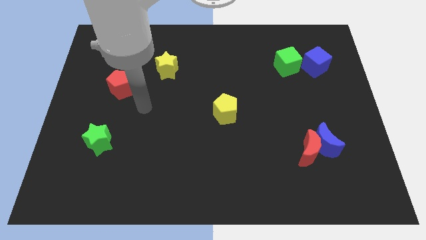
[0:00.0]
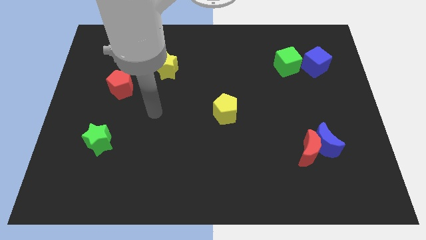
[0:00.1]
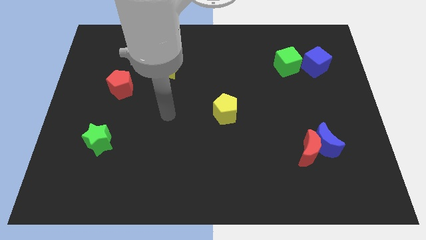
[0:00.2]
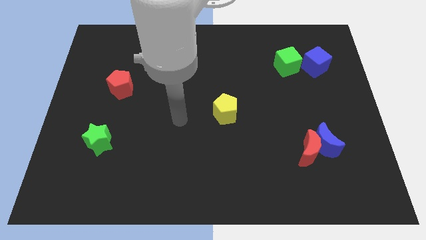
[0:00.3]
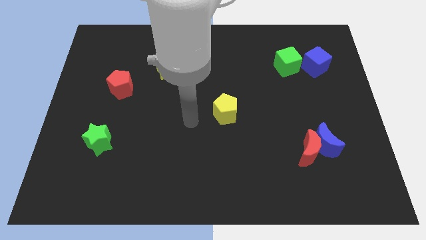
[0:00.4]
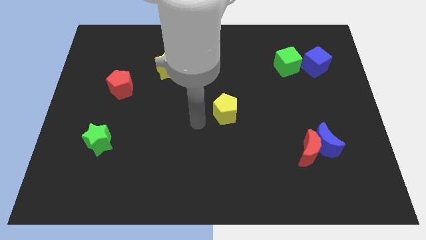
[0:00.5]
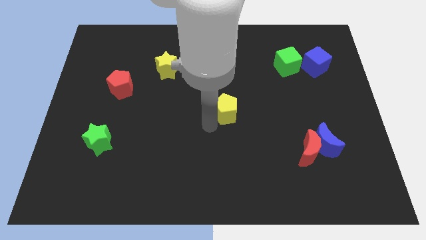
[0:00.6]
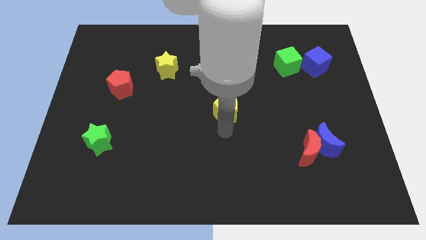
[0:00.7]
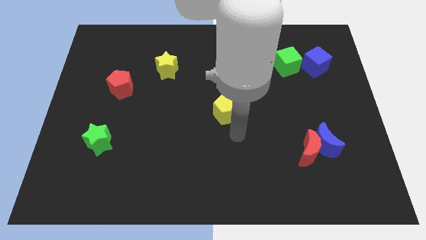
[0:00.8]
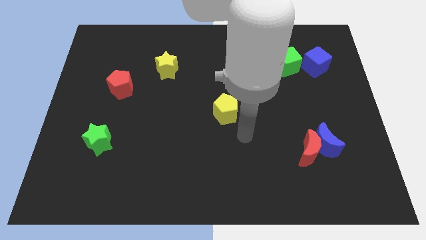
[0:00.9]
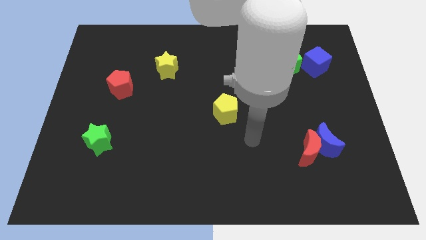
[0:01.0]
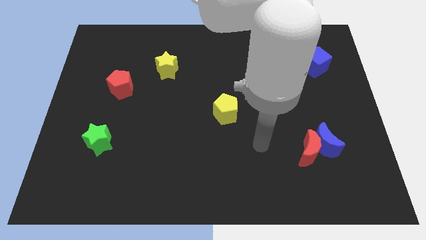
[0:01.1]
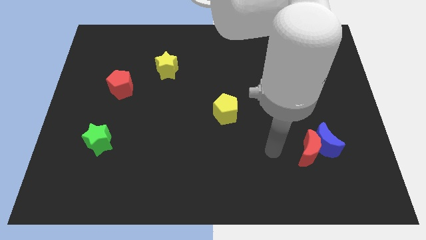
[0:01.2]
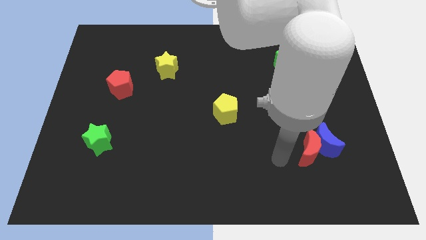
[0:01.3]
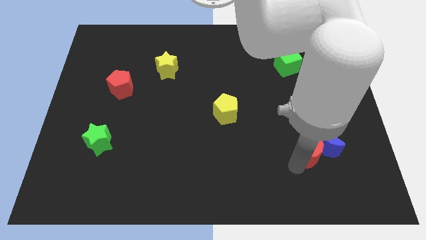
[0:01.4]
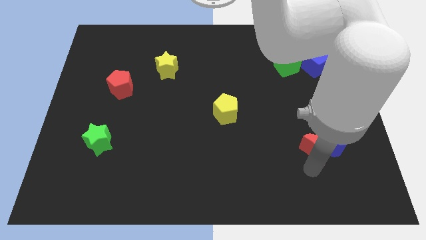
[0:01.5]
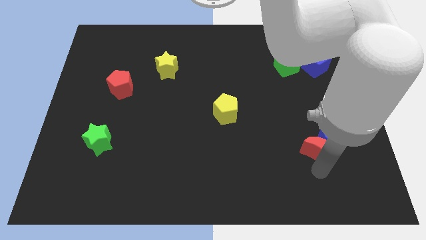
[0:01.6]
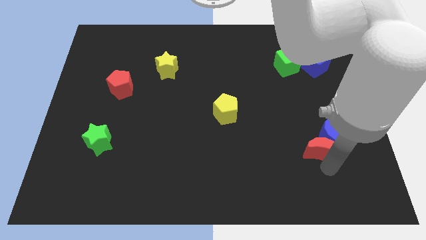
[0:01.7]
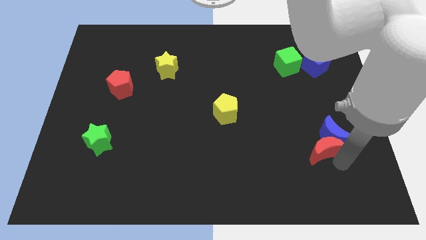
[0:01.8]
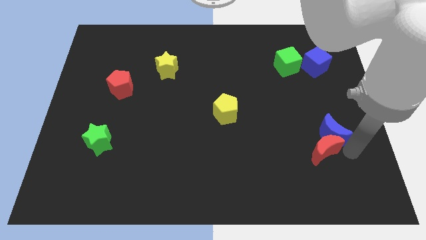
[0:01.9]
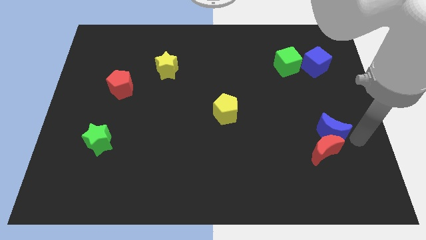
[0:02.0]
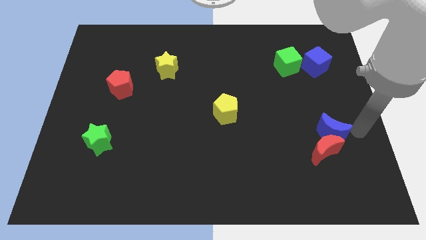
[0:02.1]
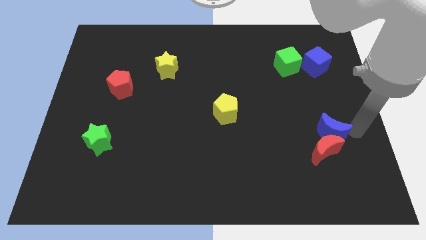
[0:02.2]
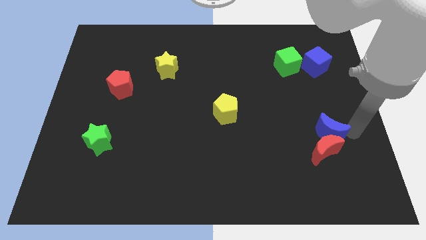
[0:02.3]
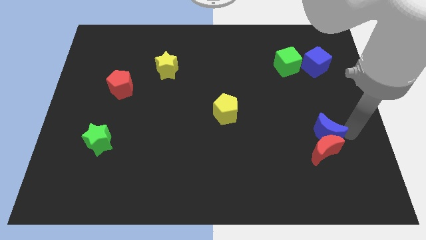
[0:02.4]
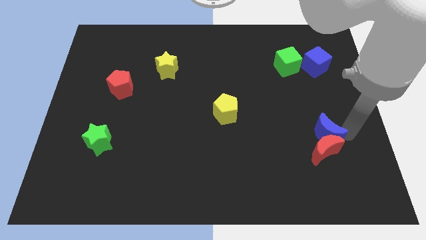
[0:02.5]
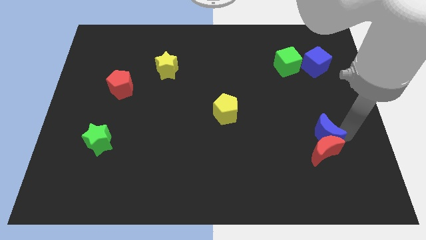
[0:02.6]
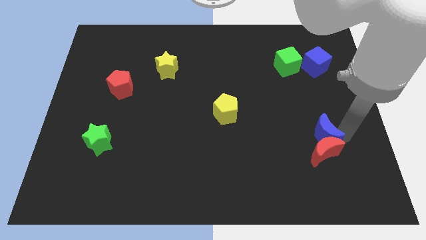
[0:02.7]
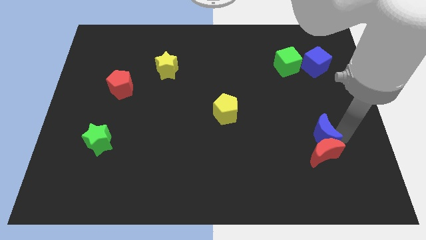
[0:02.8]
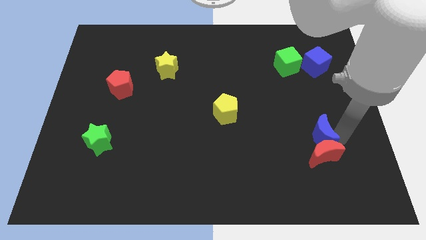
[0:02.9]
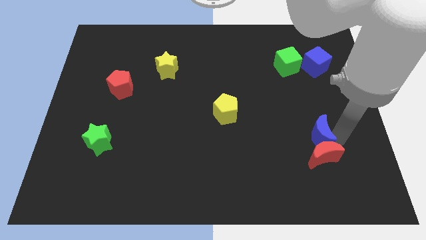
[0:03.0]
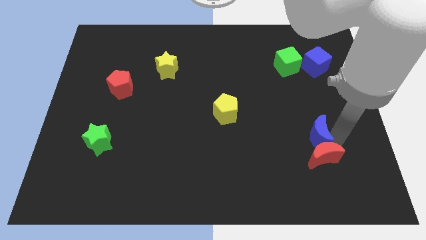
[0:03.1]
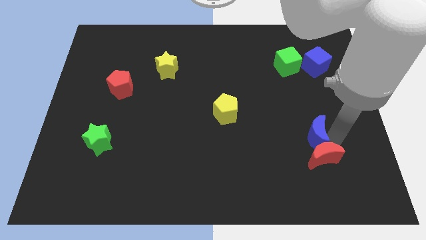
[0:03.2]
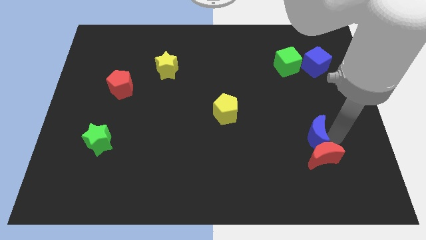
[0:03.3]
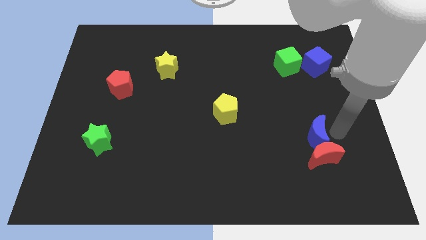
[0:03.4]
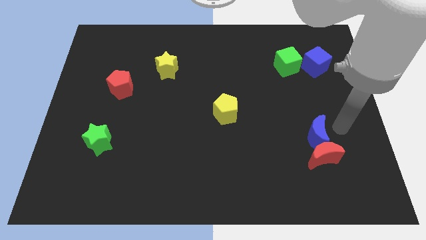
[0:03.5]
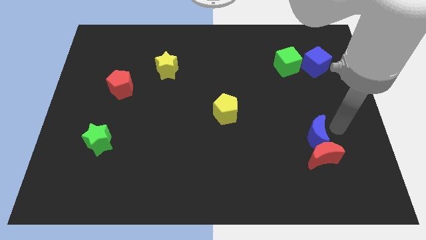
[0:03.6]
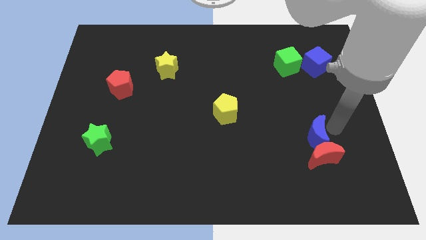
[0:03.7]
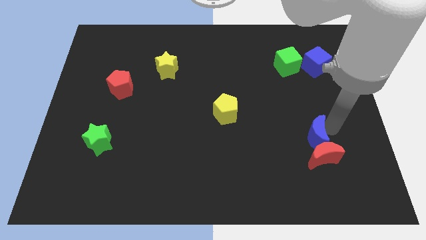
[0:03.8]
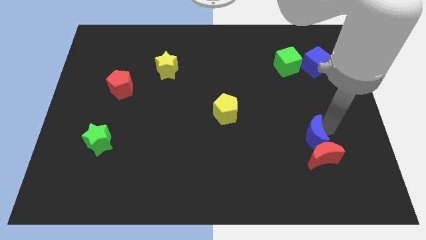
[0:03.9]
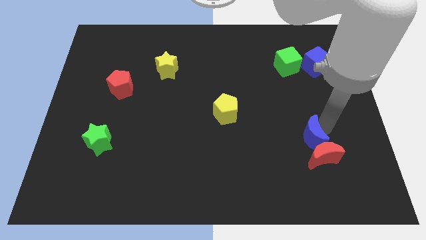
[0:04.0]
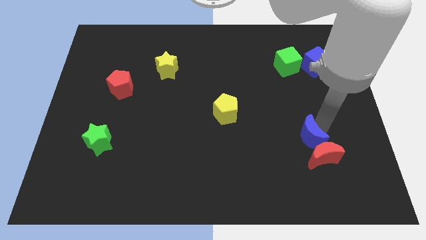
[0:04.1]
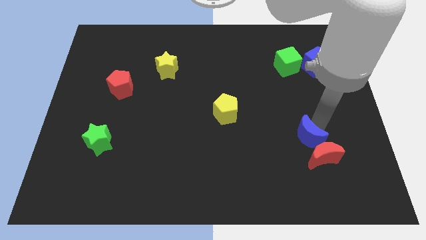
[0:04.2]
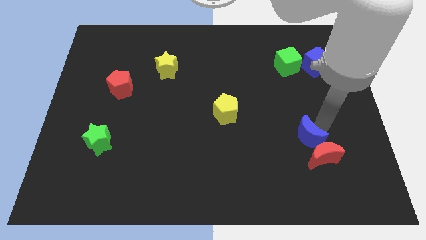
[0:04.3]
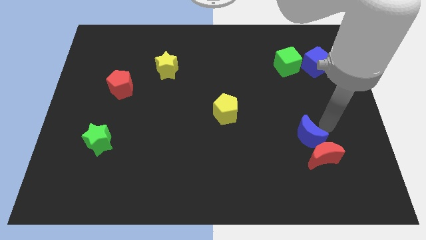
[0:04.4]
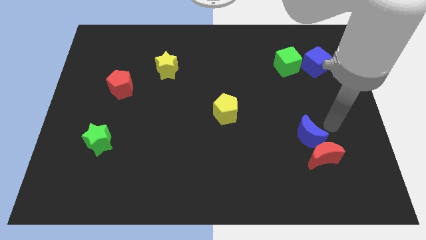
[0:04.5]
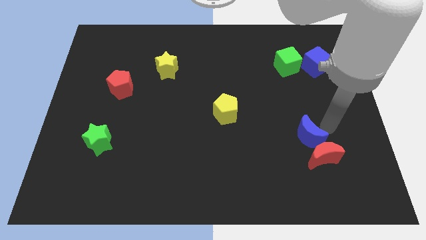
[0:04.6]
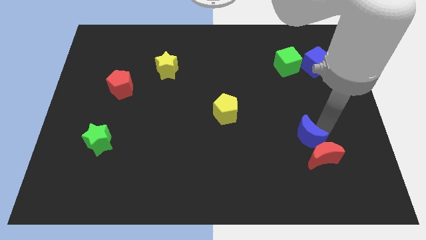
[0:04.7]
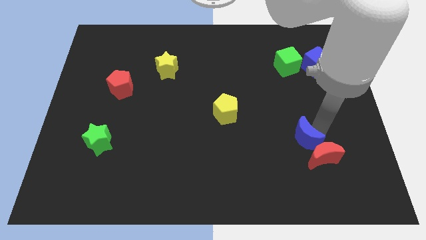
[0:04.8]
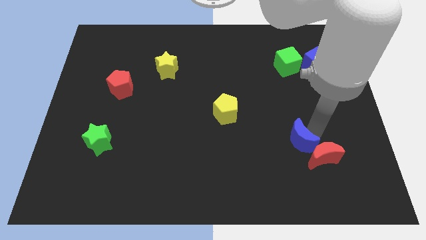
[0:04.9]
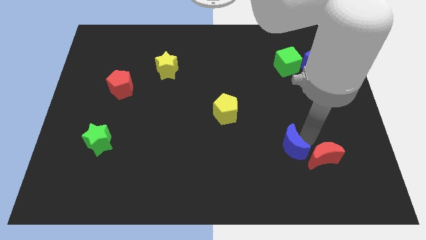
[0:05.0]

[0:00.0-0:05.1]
slide the blue moon left a little

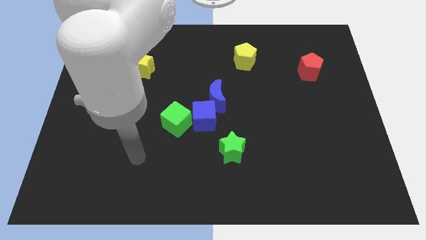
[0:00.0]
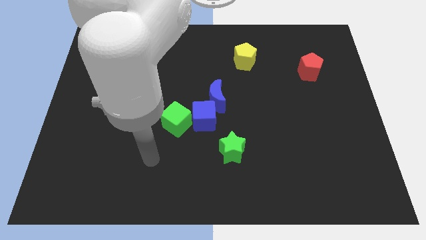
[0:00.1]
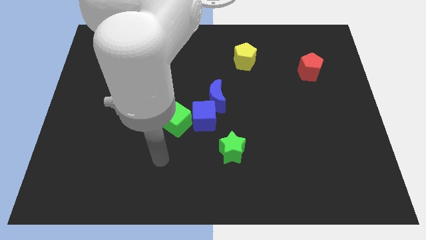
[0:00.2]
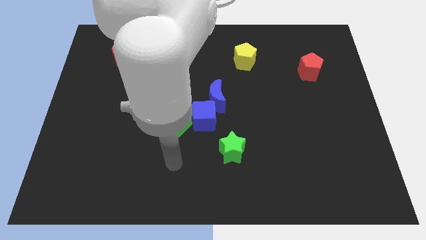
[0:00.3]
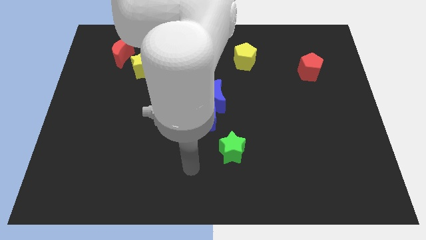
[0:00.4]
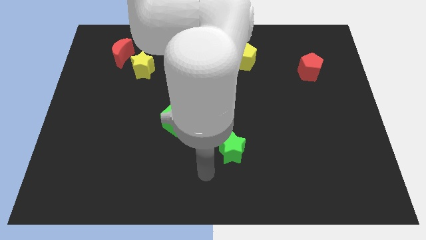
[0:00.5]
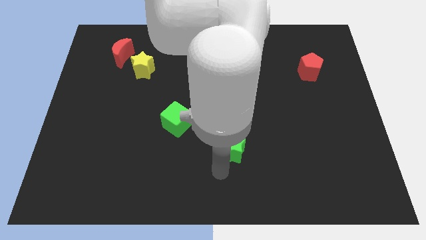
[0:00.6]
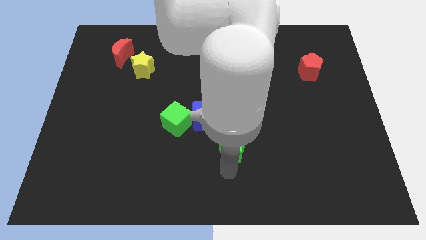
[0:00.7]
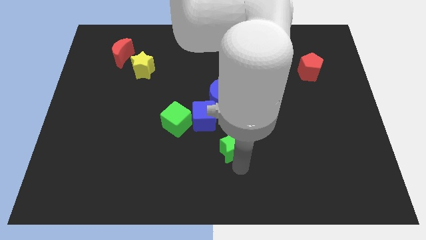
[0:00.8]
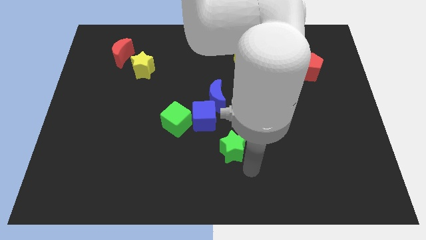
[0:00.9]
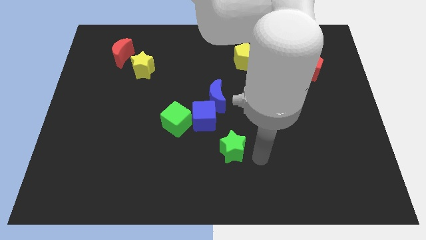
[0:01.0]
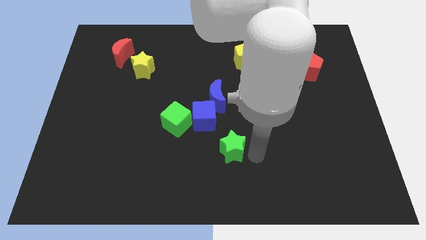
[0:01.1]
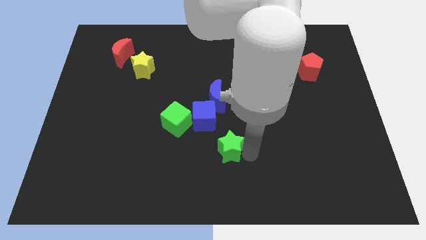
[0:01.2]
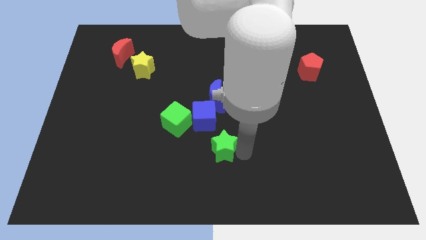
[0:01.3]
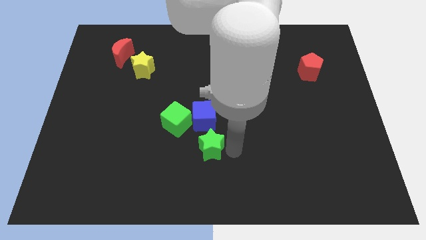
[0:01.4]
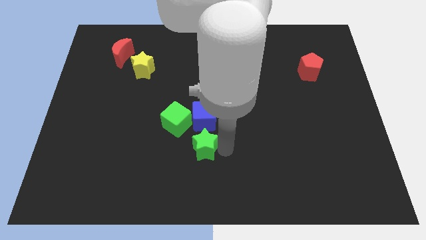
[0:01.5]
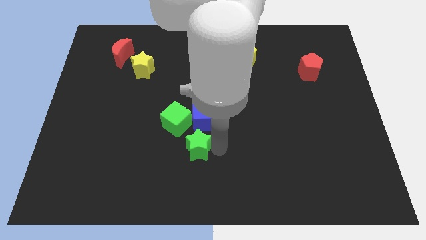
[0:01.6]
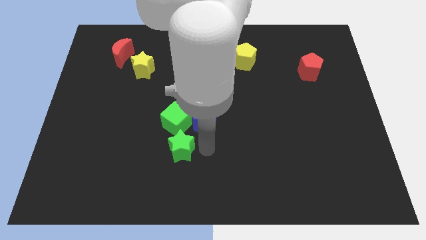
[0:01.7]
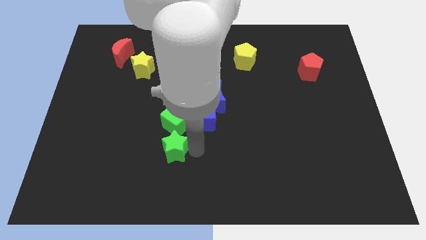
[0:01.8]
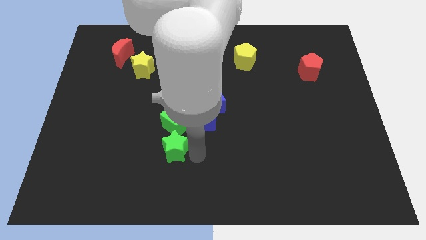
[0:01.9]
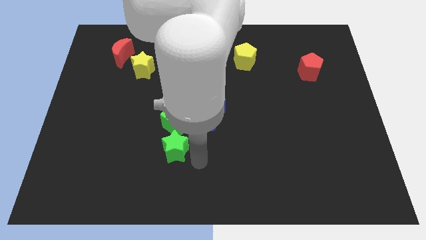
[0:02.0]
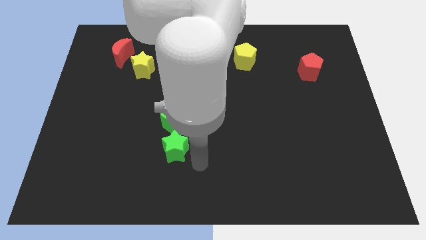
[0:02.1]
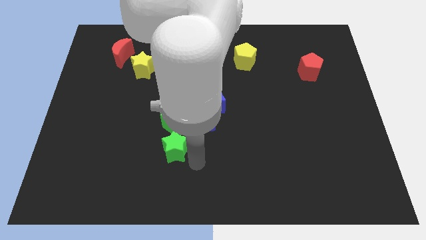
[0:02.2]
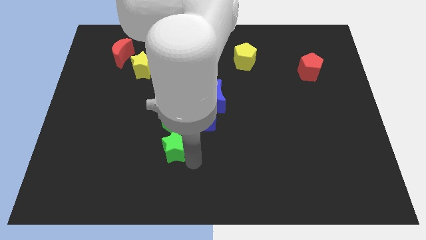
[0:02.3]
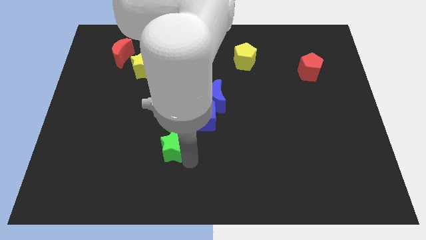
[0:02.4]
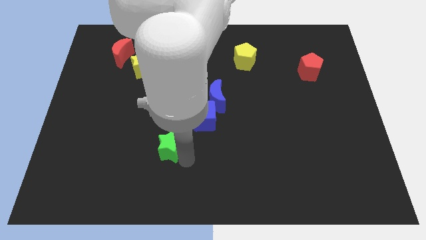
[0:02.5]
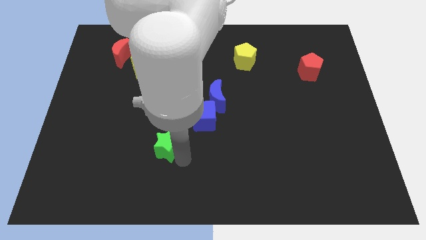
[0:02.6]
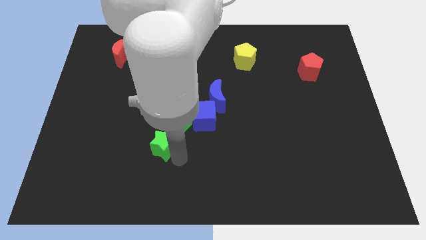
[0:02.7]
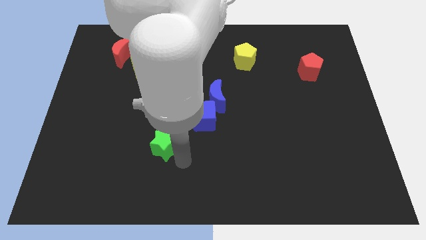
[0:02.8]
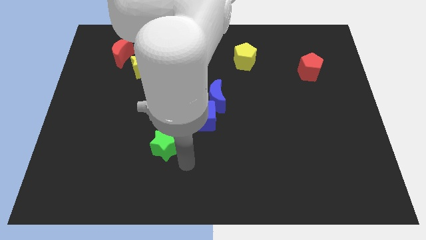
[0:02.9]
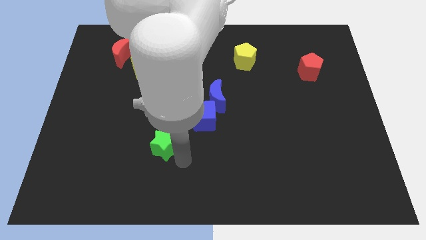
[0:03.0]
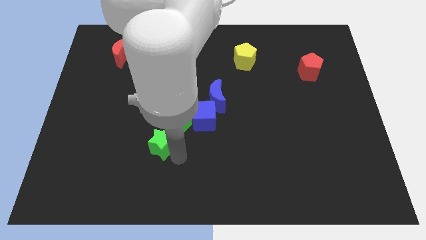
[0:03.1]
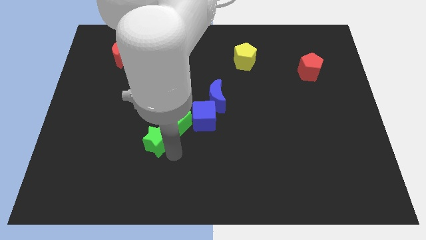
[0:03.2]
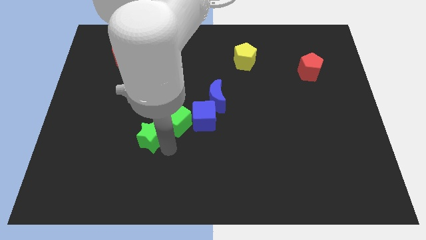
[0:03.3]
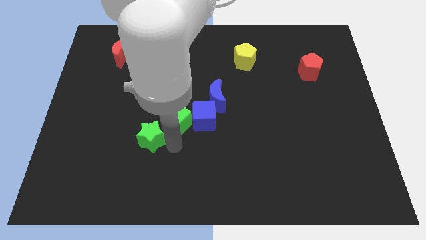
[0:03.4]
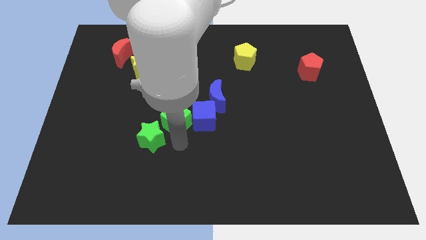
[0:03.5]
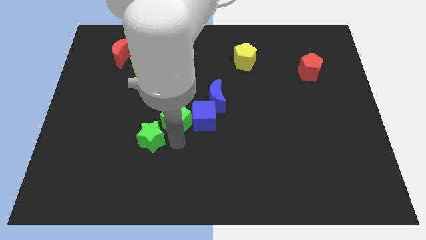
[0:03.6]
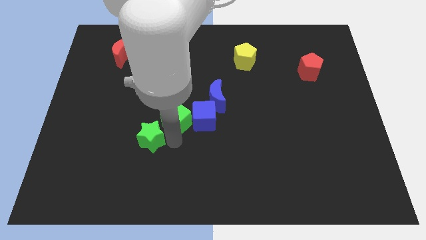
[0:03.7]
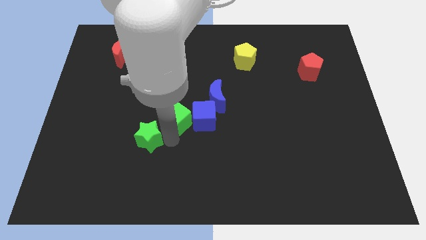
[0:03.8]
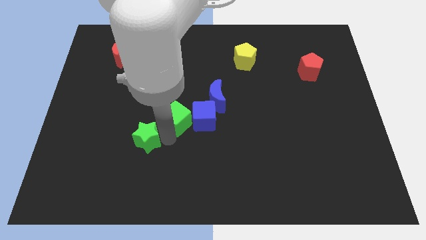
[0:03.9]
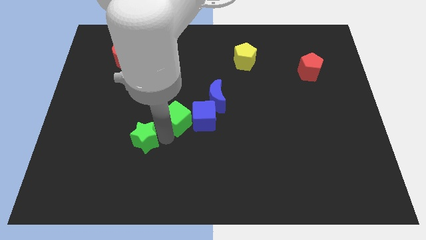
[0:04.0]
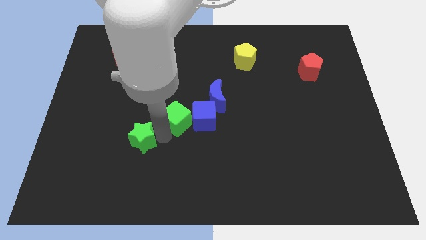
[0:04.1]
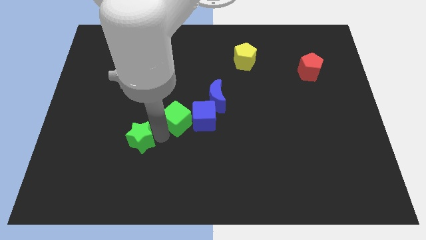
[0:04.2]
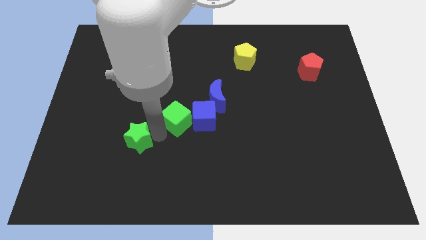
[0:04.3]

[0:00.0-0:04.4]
push the green star to the left
